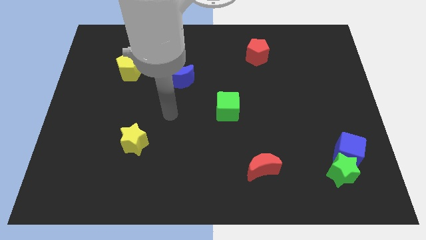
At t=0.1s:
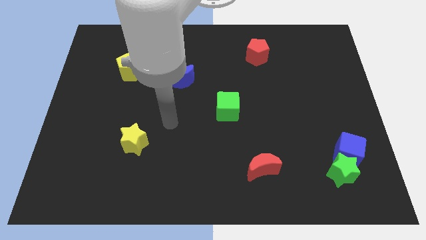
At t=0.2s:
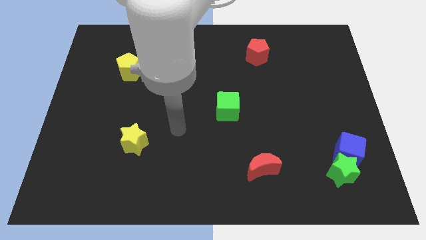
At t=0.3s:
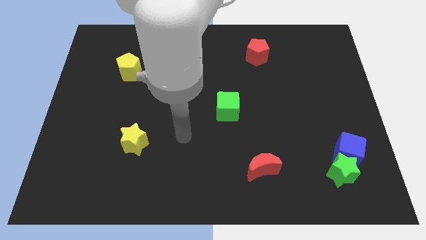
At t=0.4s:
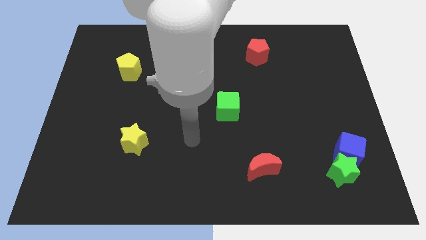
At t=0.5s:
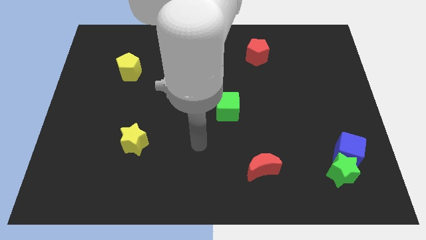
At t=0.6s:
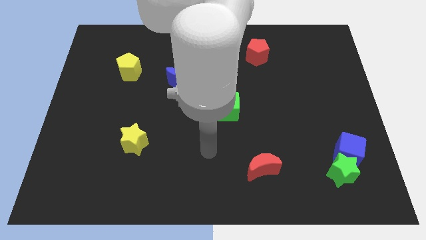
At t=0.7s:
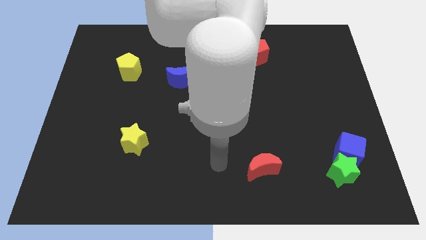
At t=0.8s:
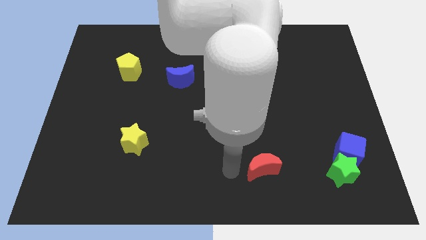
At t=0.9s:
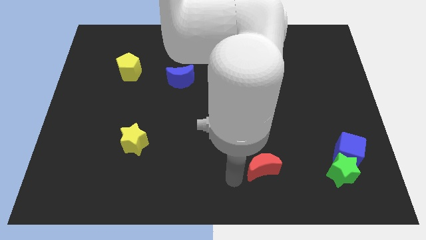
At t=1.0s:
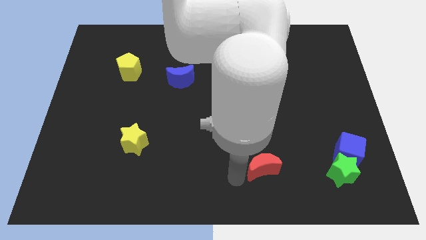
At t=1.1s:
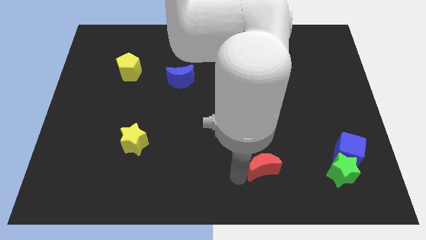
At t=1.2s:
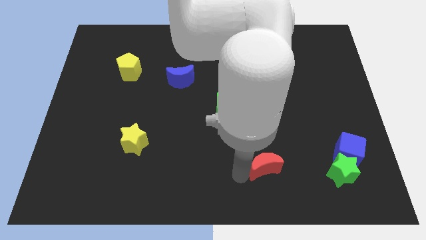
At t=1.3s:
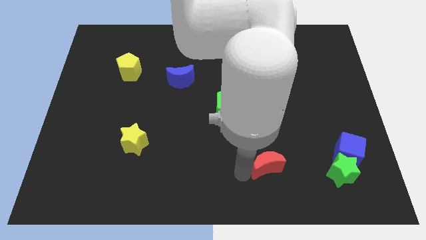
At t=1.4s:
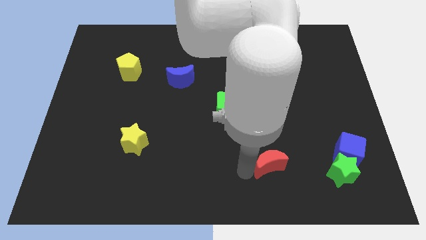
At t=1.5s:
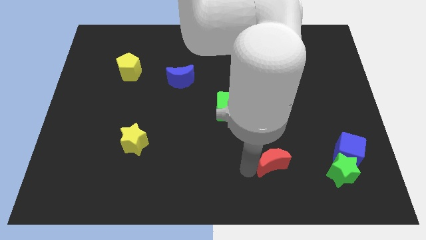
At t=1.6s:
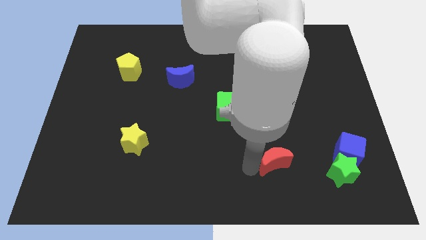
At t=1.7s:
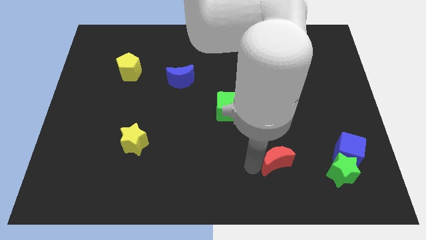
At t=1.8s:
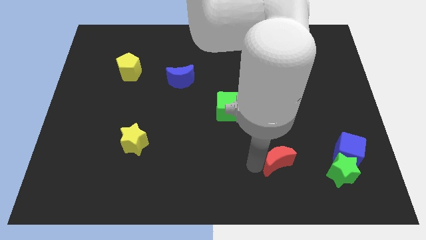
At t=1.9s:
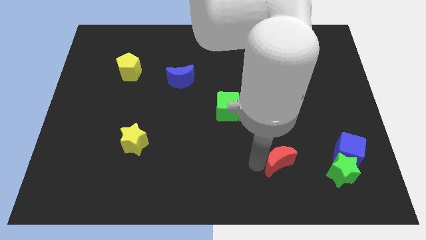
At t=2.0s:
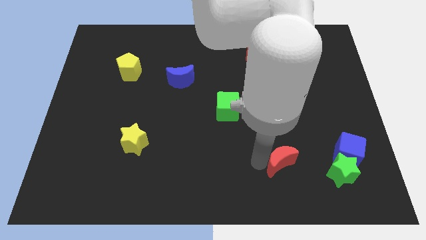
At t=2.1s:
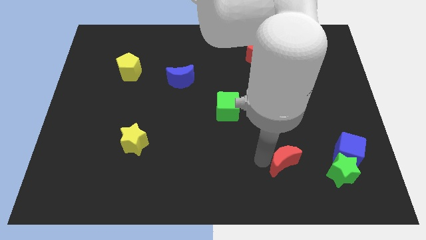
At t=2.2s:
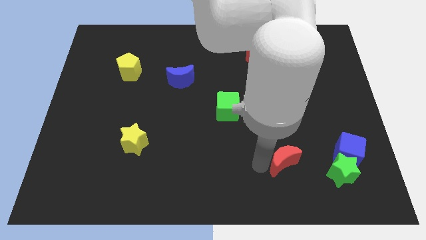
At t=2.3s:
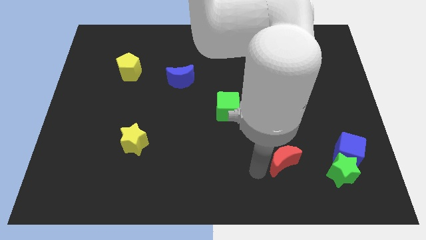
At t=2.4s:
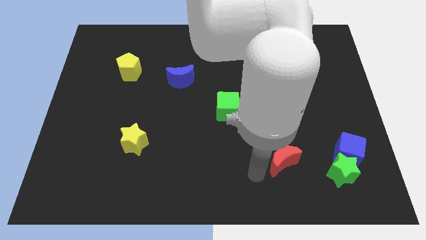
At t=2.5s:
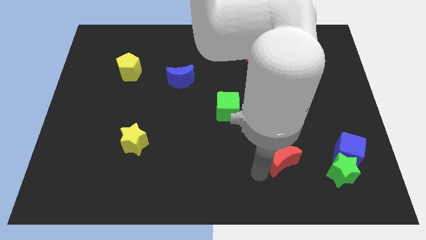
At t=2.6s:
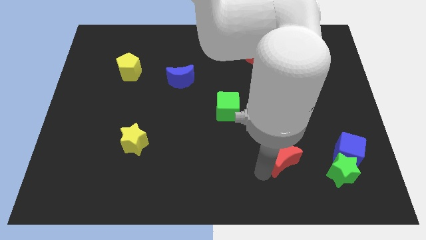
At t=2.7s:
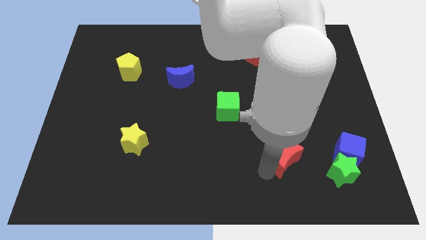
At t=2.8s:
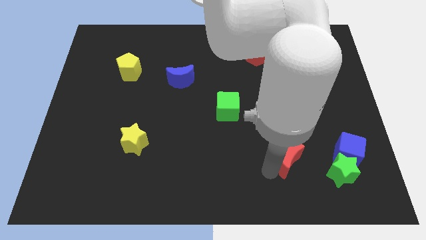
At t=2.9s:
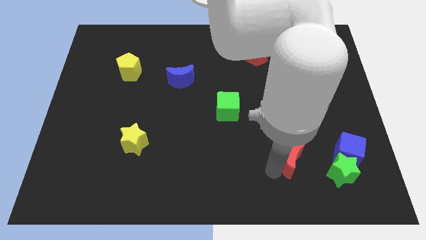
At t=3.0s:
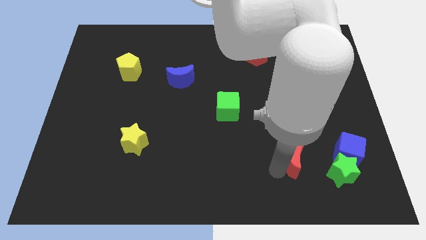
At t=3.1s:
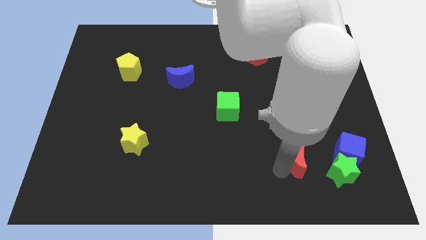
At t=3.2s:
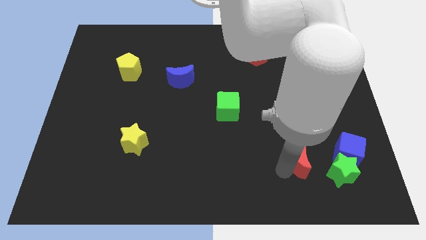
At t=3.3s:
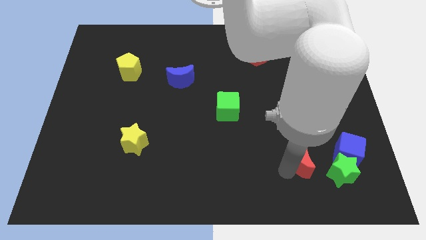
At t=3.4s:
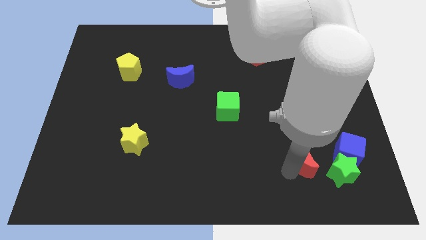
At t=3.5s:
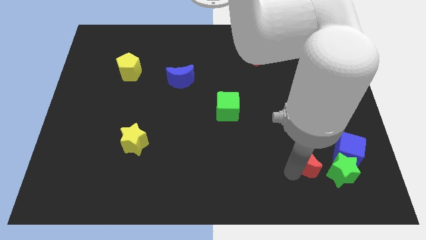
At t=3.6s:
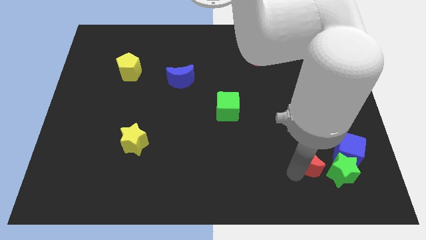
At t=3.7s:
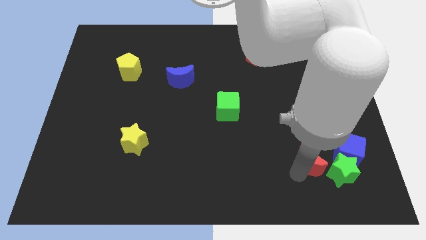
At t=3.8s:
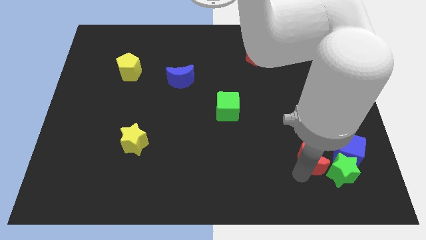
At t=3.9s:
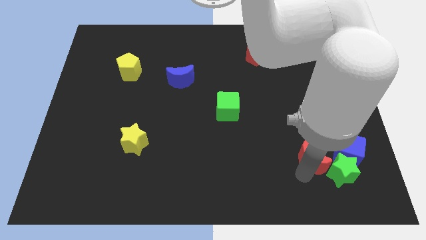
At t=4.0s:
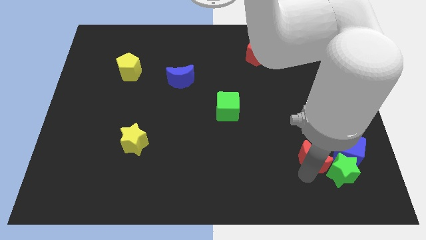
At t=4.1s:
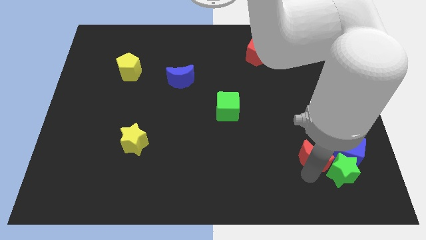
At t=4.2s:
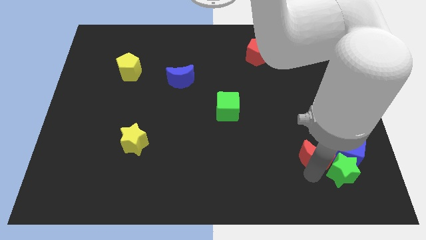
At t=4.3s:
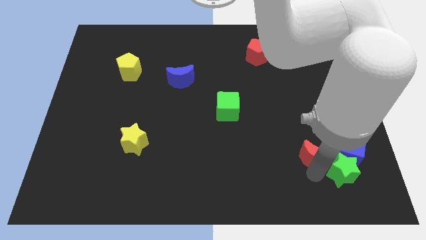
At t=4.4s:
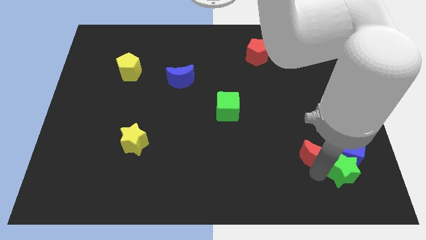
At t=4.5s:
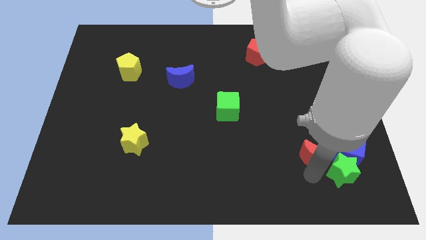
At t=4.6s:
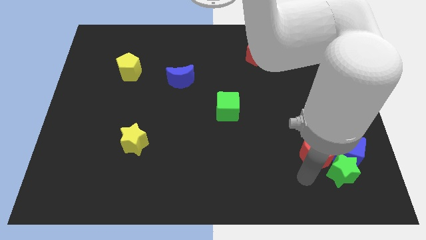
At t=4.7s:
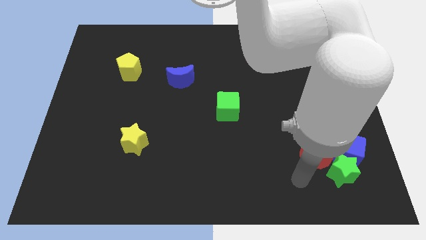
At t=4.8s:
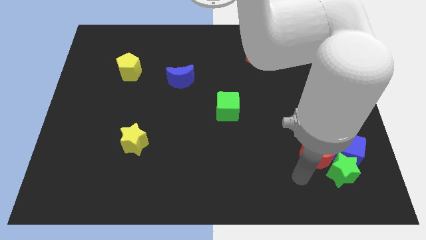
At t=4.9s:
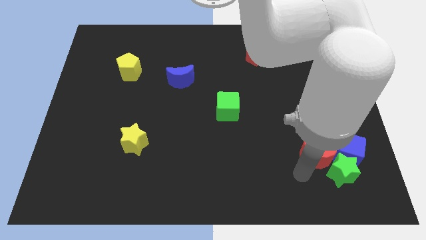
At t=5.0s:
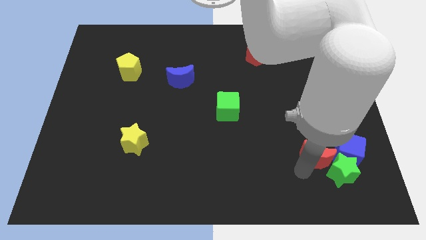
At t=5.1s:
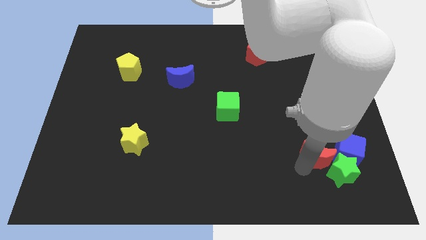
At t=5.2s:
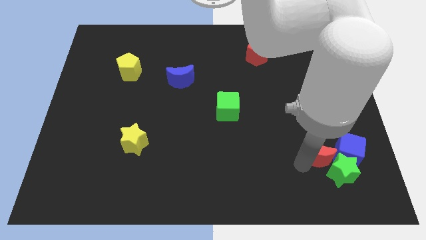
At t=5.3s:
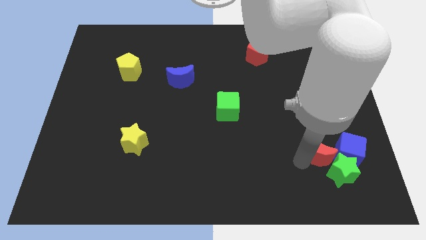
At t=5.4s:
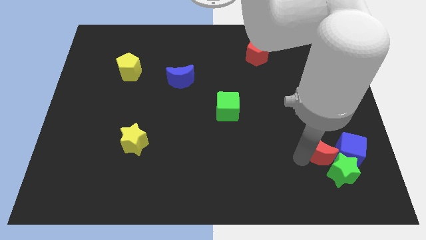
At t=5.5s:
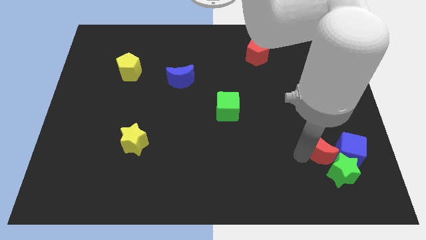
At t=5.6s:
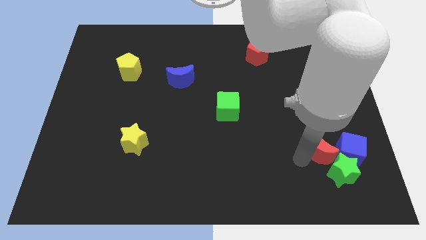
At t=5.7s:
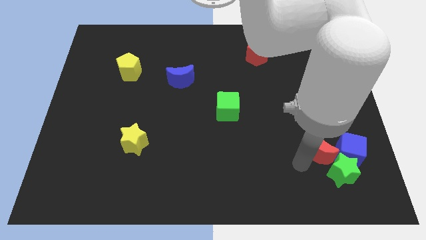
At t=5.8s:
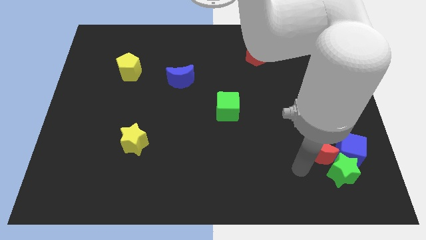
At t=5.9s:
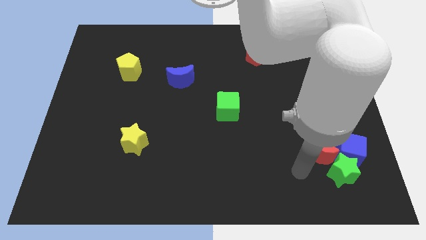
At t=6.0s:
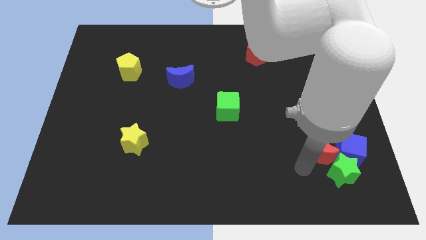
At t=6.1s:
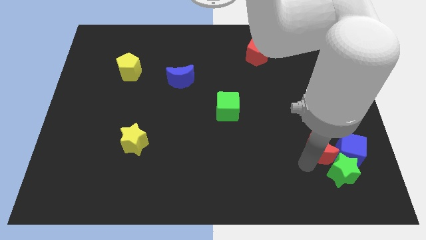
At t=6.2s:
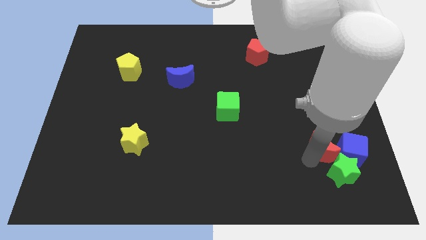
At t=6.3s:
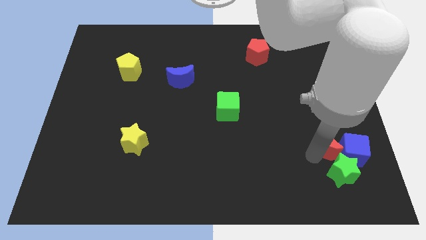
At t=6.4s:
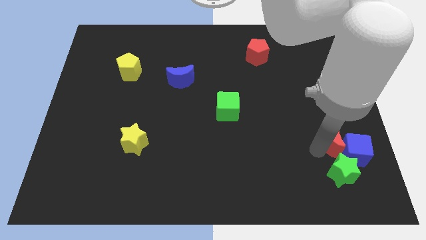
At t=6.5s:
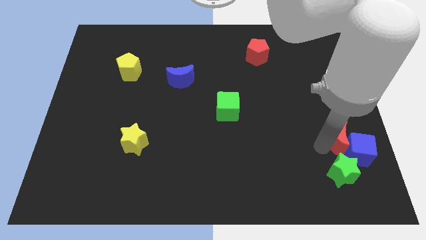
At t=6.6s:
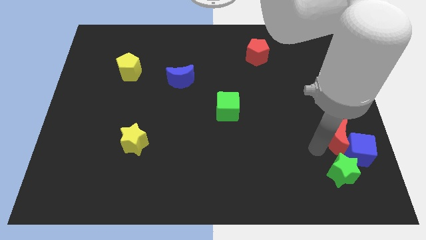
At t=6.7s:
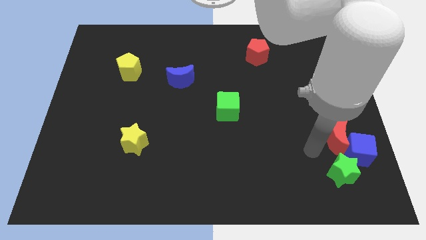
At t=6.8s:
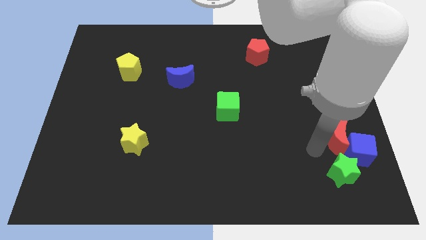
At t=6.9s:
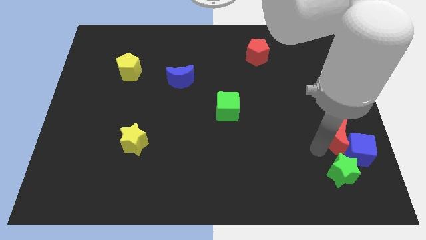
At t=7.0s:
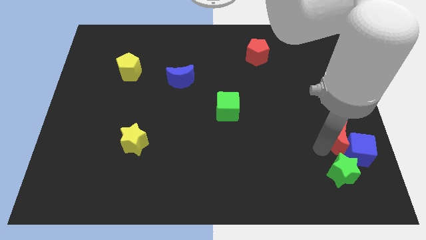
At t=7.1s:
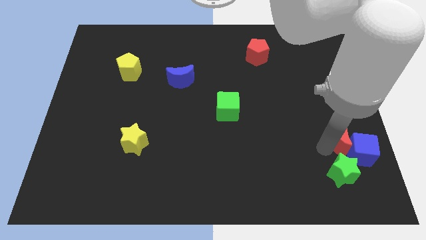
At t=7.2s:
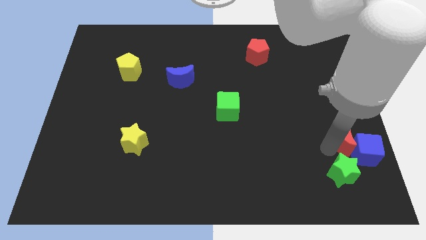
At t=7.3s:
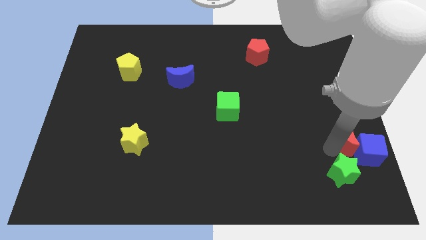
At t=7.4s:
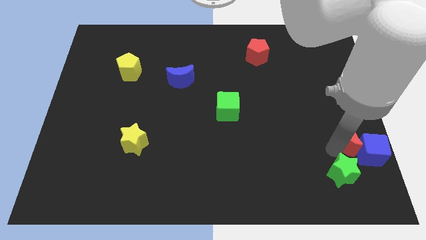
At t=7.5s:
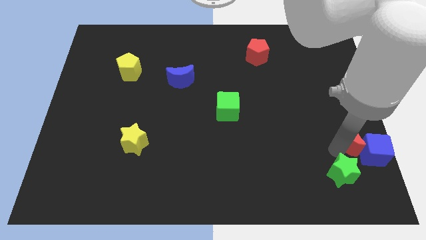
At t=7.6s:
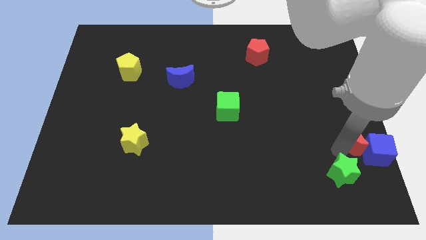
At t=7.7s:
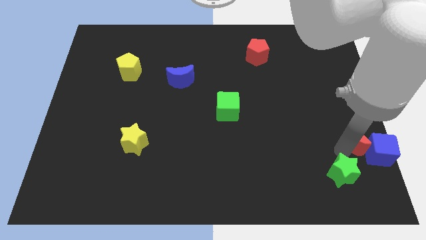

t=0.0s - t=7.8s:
slide the red moon to the center right
